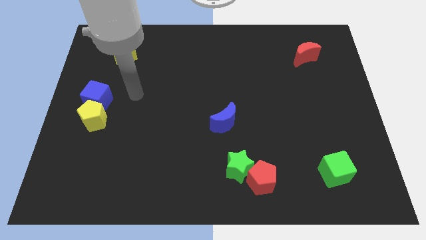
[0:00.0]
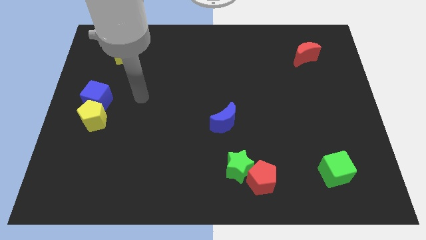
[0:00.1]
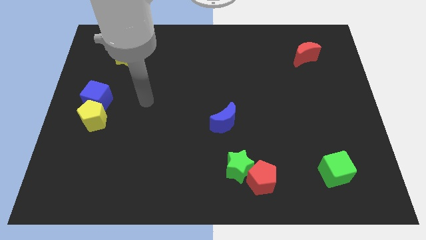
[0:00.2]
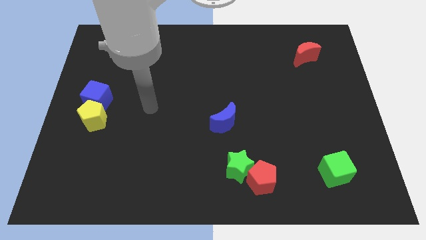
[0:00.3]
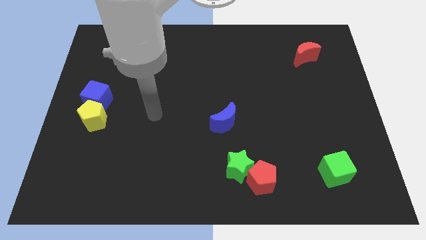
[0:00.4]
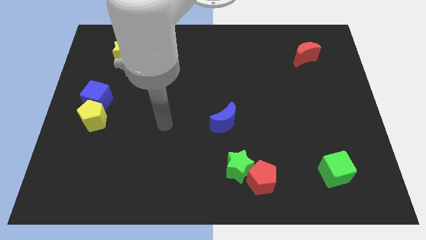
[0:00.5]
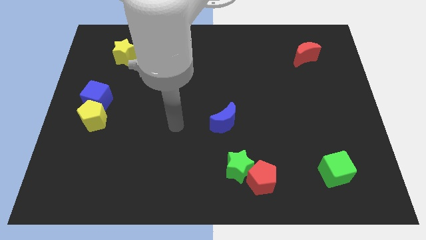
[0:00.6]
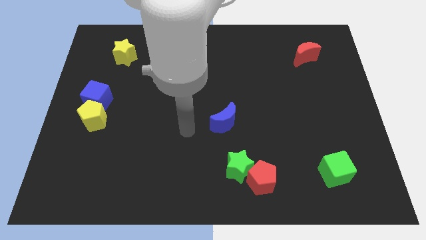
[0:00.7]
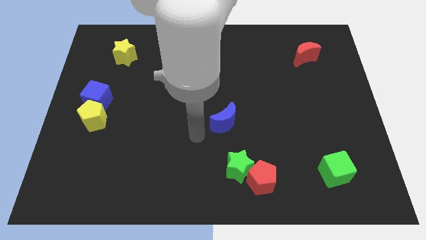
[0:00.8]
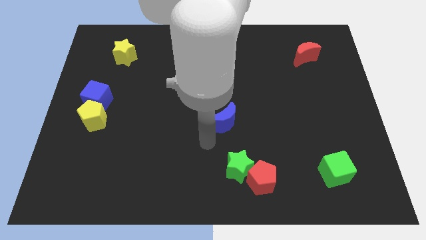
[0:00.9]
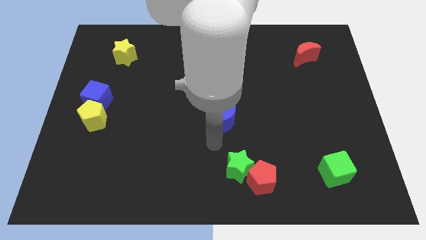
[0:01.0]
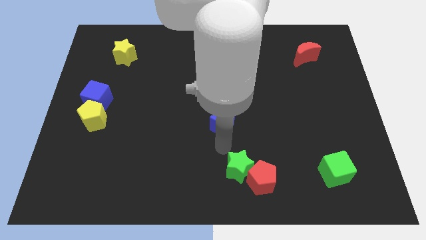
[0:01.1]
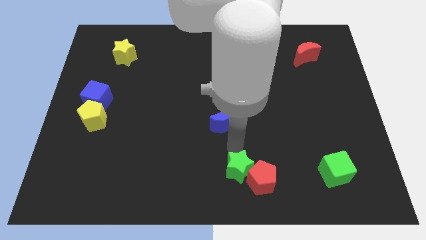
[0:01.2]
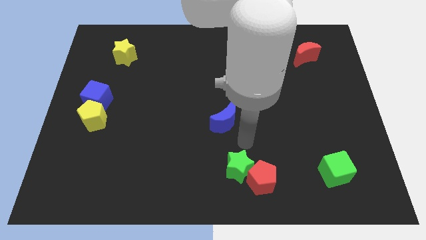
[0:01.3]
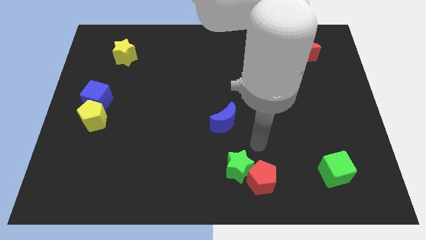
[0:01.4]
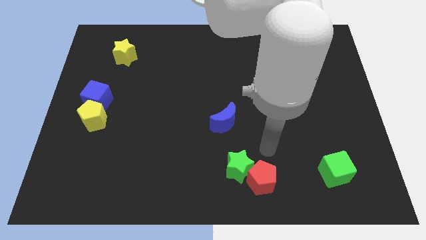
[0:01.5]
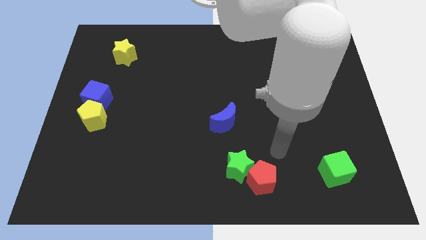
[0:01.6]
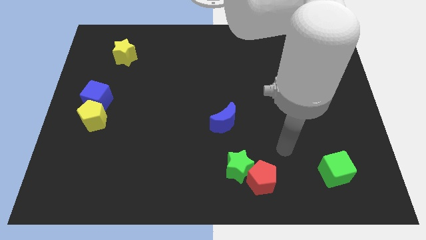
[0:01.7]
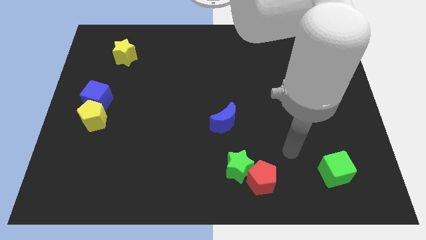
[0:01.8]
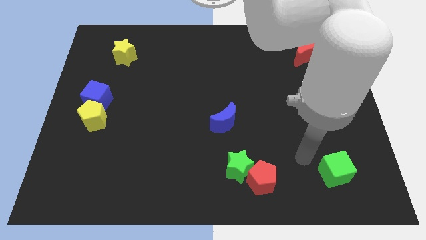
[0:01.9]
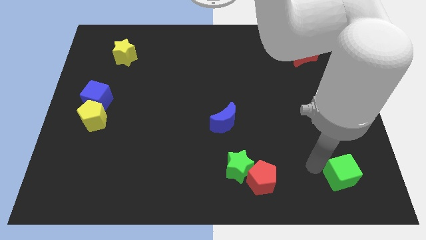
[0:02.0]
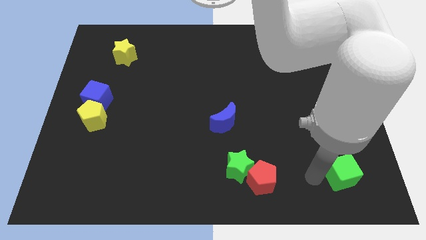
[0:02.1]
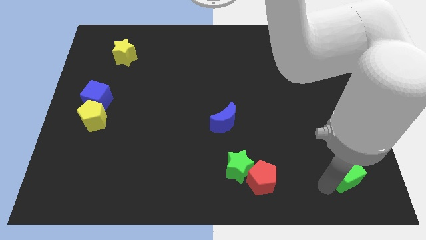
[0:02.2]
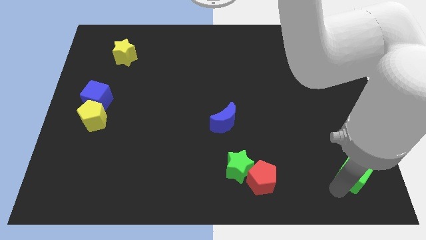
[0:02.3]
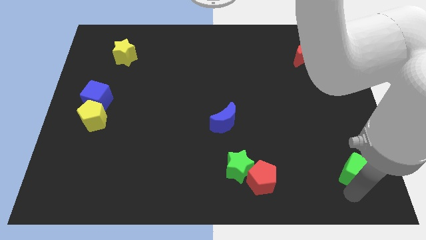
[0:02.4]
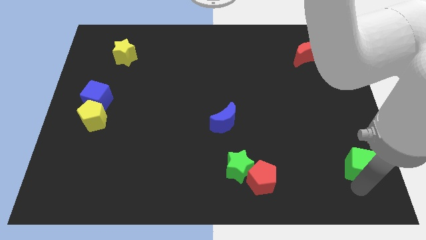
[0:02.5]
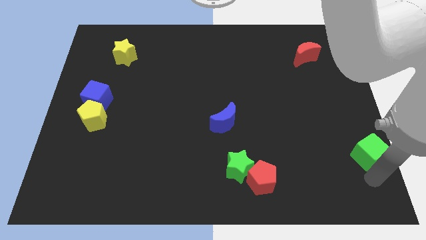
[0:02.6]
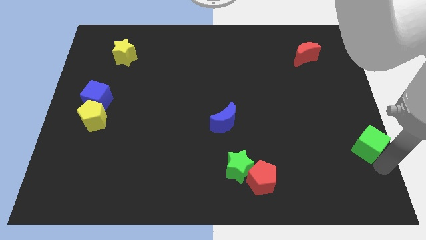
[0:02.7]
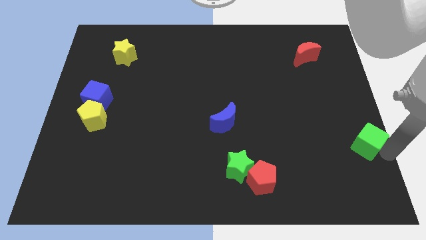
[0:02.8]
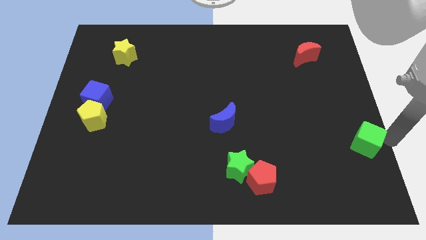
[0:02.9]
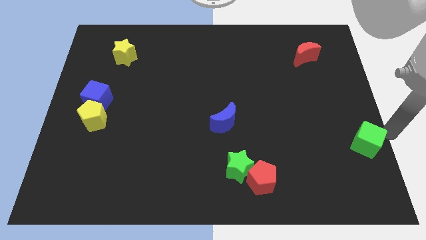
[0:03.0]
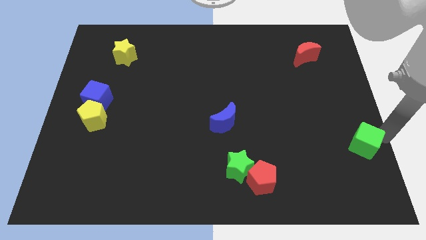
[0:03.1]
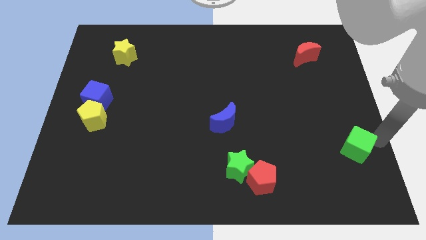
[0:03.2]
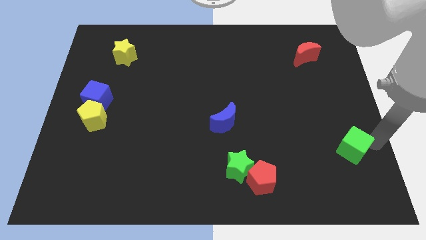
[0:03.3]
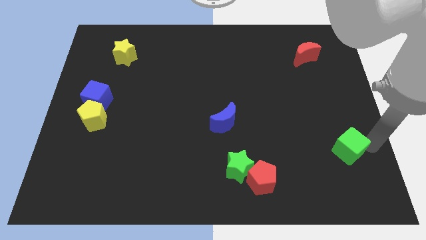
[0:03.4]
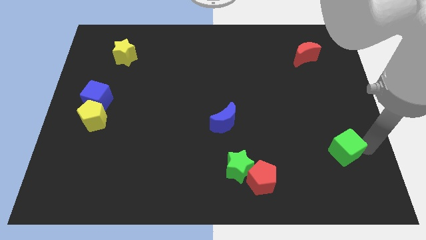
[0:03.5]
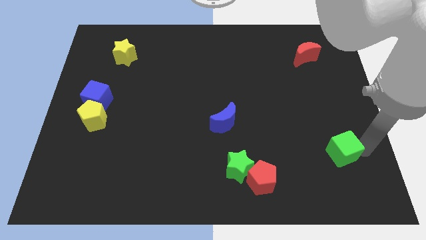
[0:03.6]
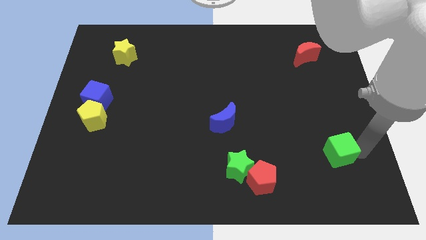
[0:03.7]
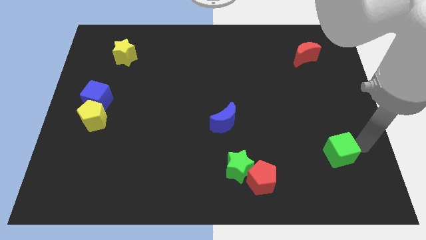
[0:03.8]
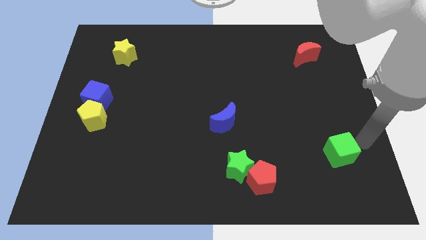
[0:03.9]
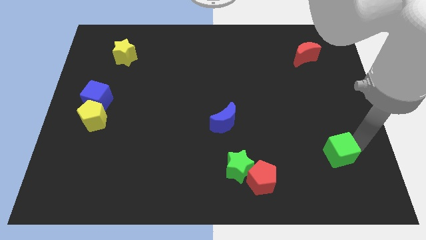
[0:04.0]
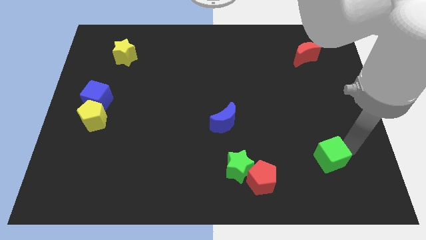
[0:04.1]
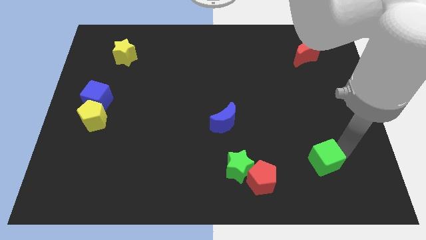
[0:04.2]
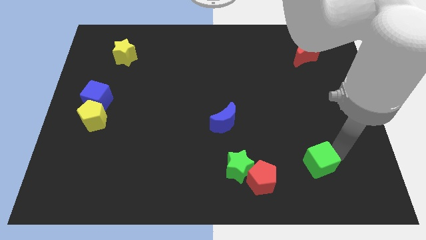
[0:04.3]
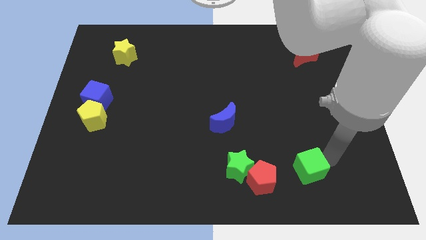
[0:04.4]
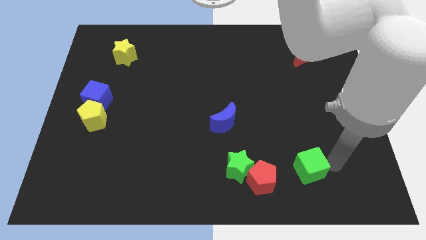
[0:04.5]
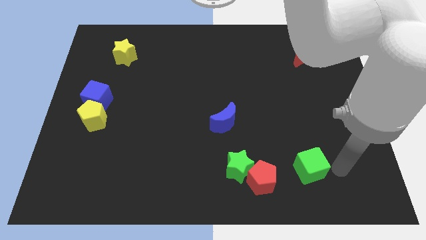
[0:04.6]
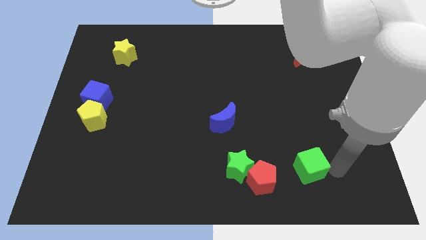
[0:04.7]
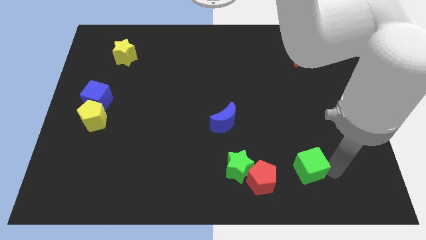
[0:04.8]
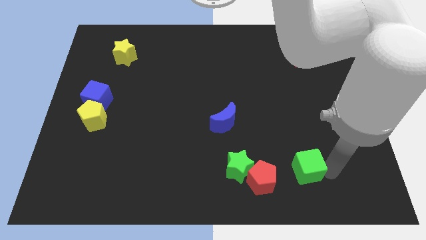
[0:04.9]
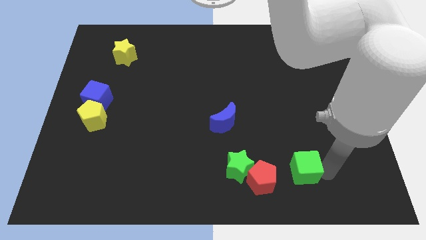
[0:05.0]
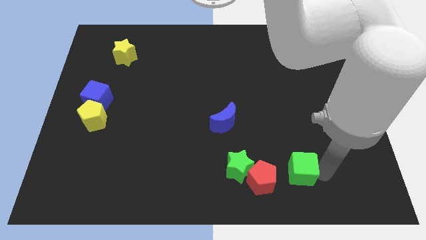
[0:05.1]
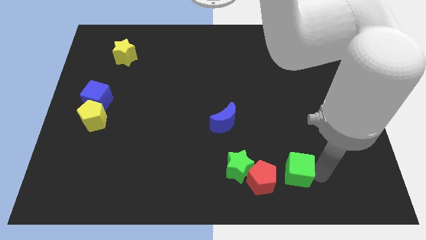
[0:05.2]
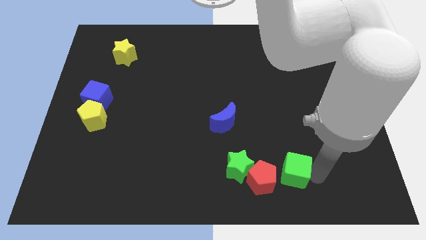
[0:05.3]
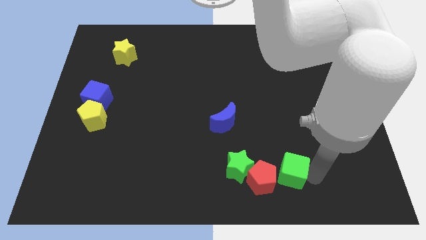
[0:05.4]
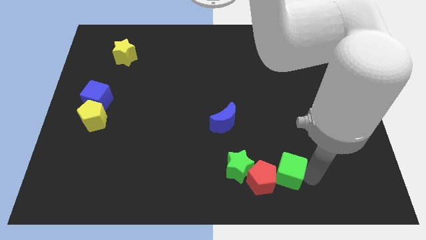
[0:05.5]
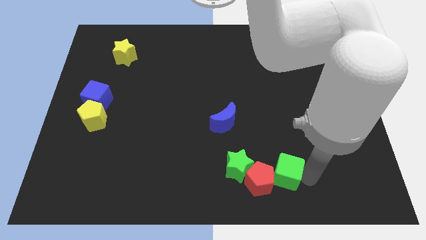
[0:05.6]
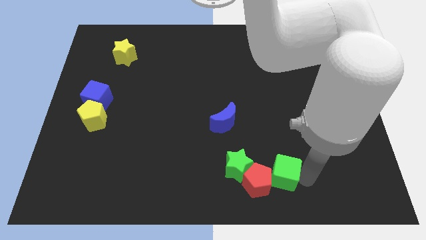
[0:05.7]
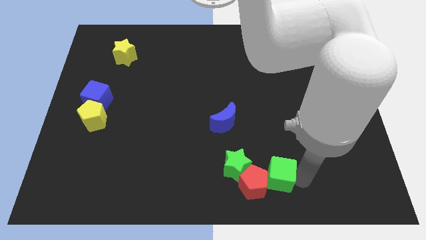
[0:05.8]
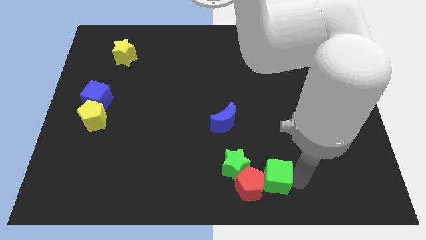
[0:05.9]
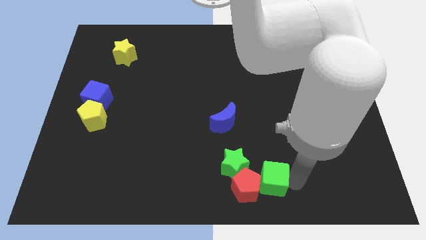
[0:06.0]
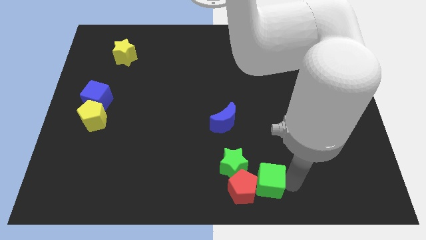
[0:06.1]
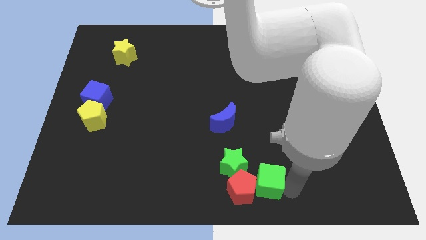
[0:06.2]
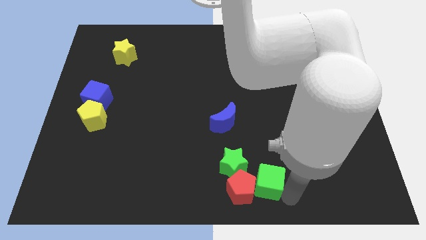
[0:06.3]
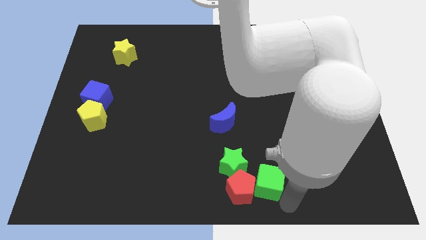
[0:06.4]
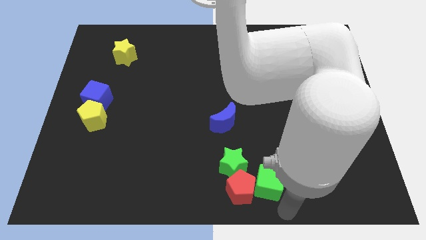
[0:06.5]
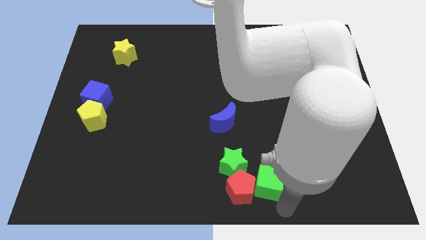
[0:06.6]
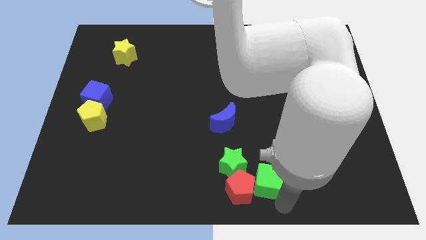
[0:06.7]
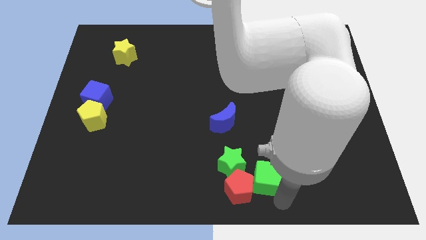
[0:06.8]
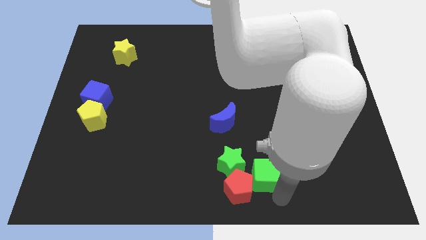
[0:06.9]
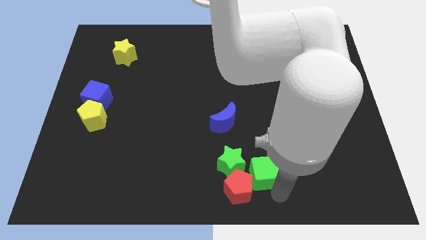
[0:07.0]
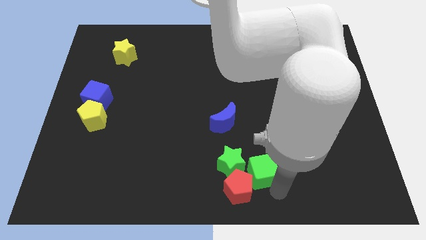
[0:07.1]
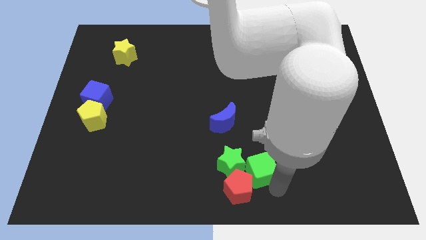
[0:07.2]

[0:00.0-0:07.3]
push the green cube next to the green star

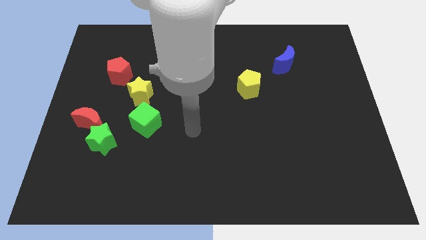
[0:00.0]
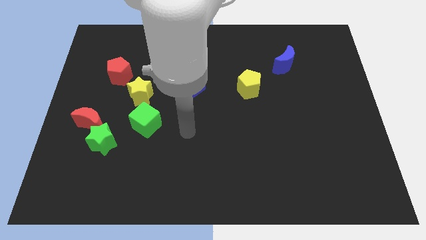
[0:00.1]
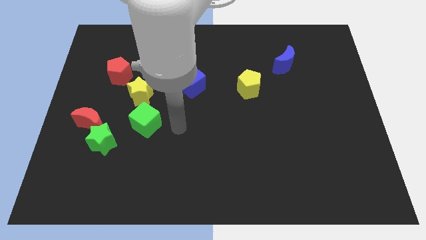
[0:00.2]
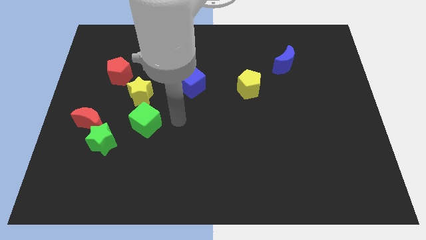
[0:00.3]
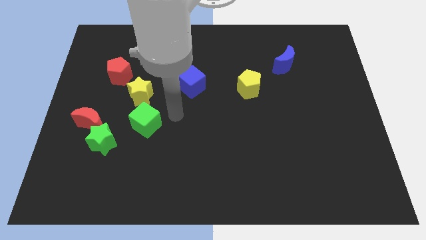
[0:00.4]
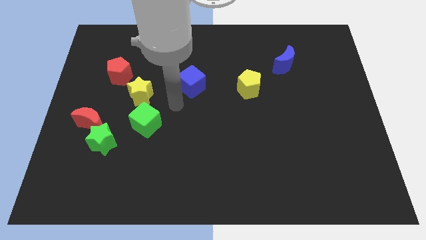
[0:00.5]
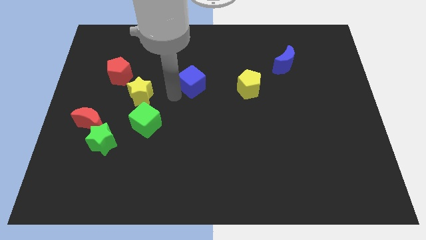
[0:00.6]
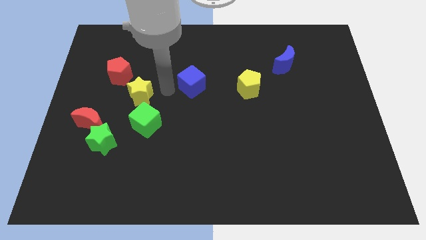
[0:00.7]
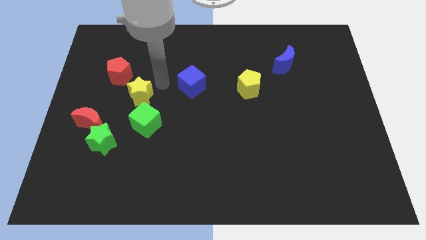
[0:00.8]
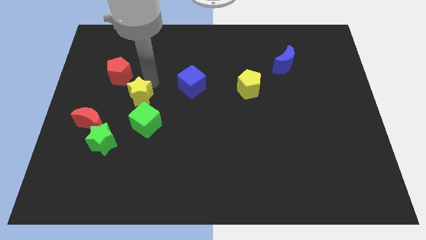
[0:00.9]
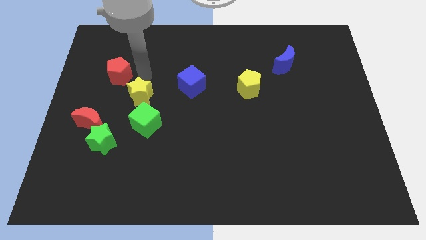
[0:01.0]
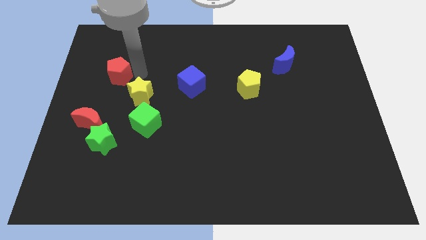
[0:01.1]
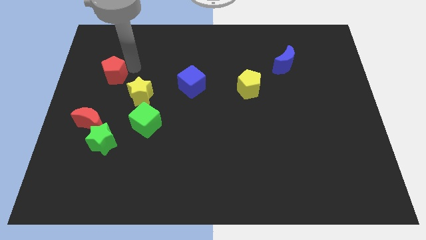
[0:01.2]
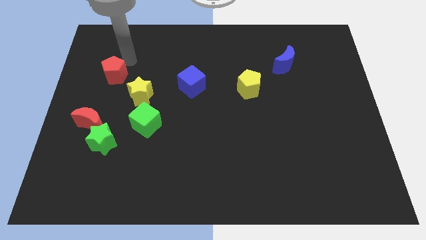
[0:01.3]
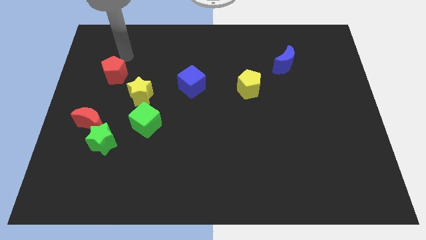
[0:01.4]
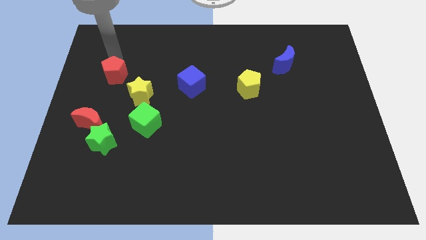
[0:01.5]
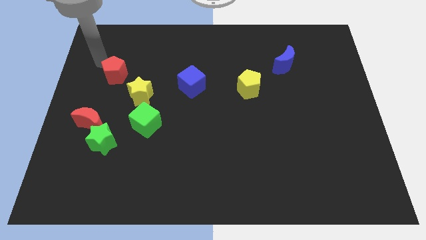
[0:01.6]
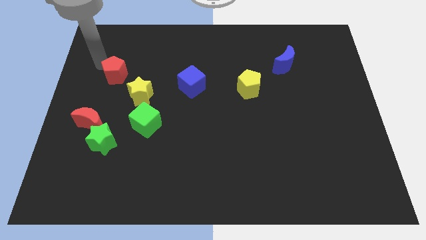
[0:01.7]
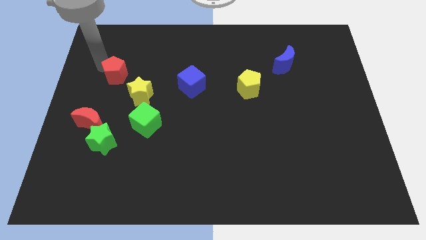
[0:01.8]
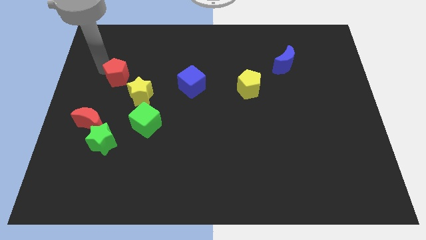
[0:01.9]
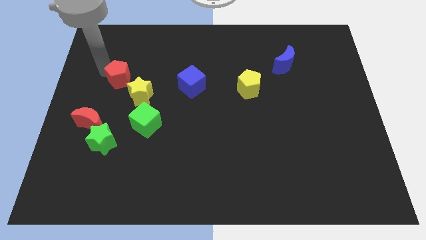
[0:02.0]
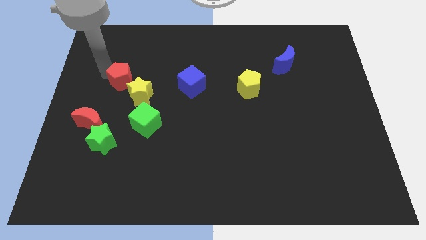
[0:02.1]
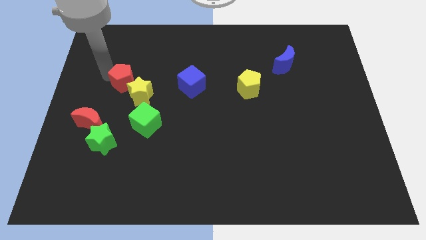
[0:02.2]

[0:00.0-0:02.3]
put the red pentagon close to the yellow star
